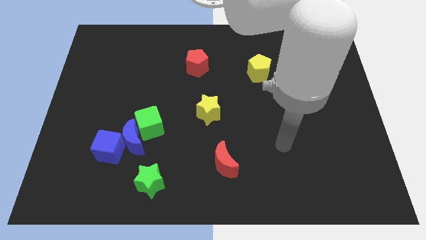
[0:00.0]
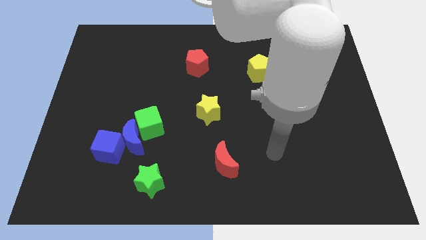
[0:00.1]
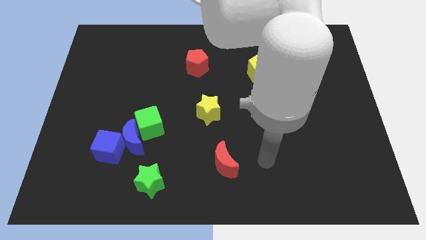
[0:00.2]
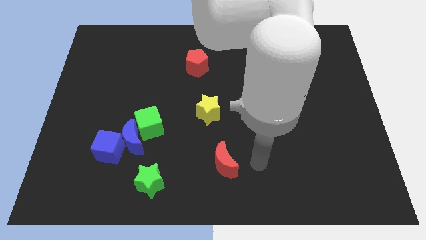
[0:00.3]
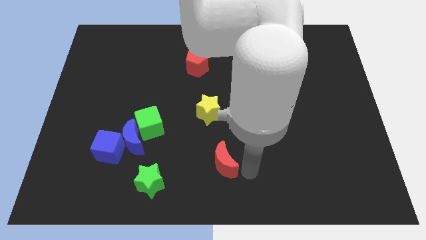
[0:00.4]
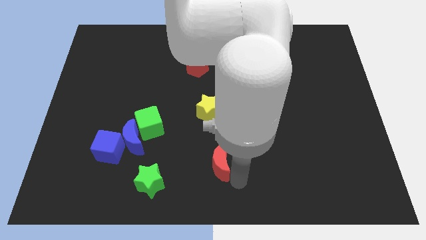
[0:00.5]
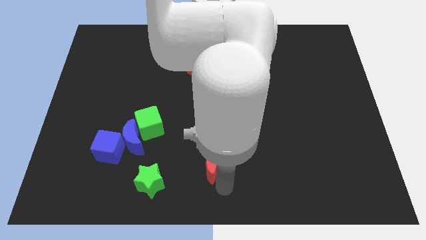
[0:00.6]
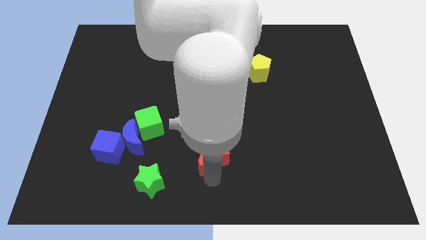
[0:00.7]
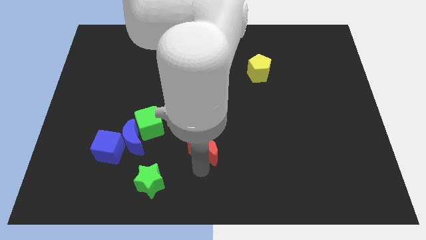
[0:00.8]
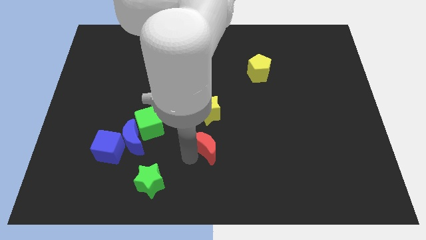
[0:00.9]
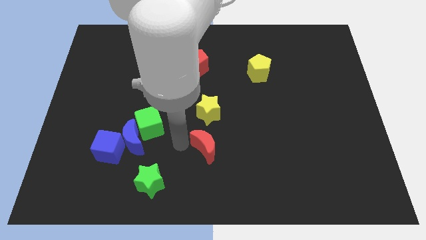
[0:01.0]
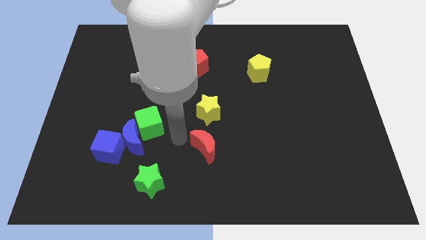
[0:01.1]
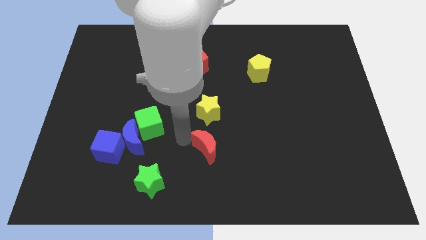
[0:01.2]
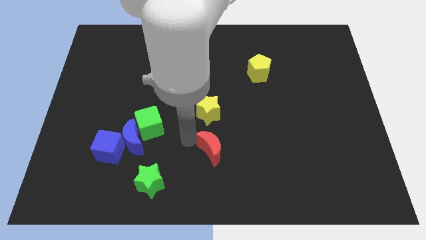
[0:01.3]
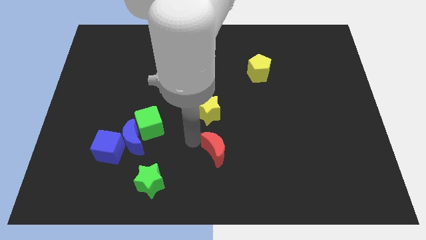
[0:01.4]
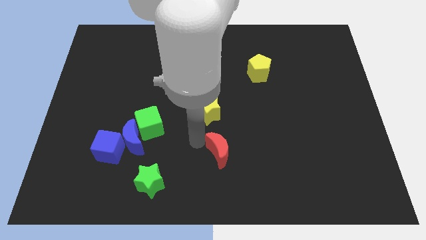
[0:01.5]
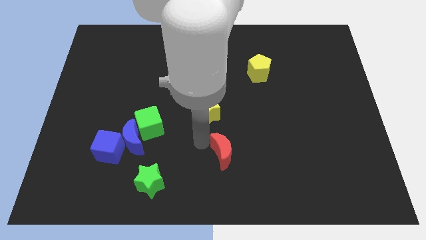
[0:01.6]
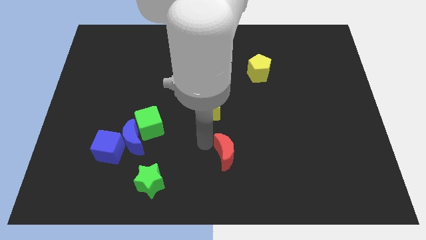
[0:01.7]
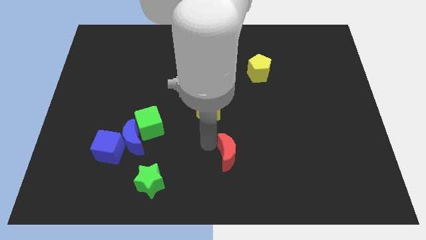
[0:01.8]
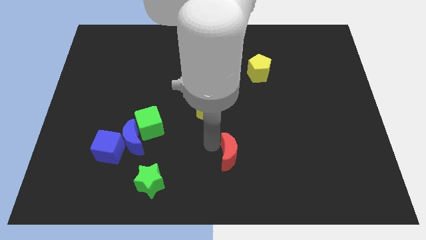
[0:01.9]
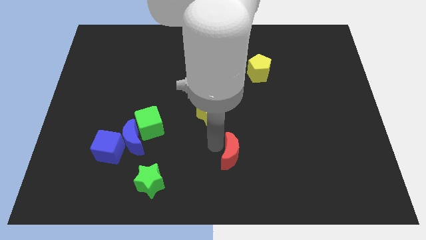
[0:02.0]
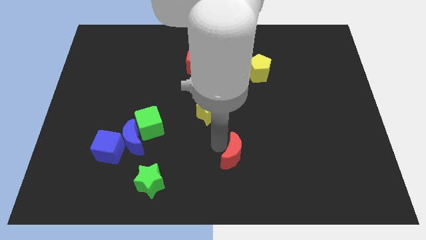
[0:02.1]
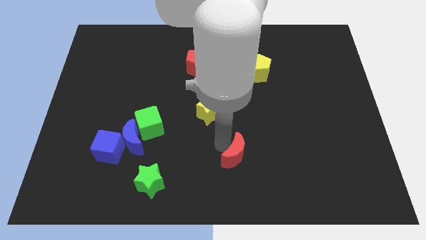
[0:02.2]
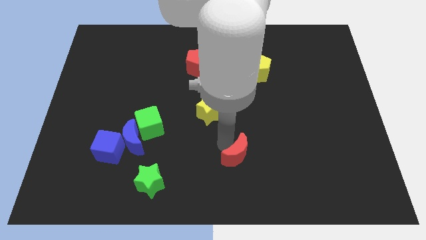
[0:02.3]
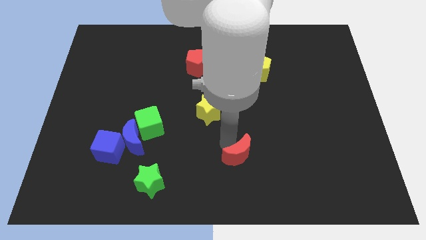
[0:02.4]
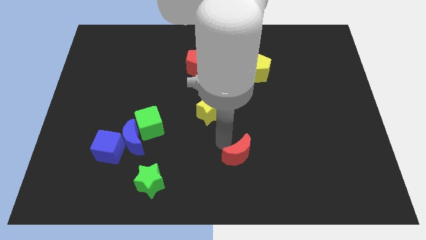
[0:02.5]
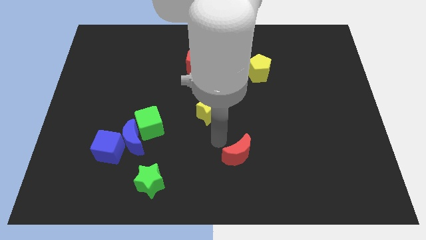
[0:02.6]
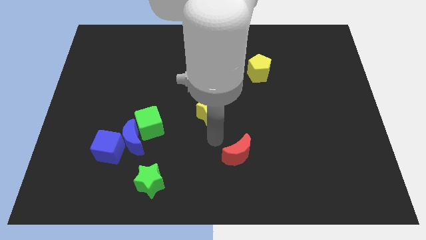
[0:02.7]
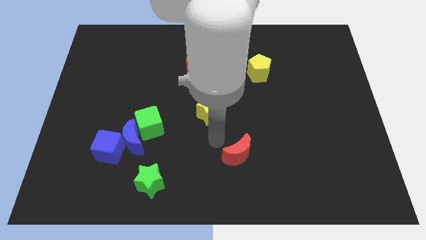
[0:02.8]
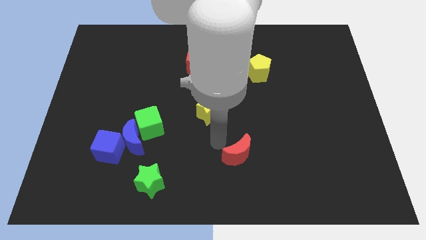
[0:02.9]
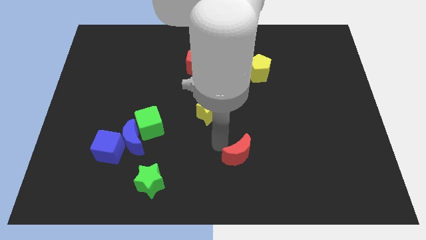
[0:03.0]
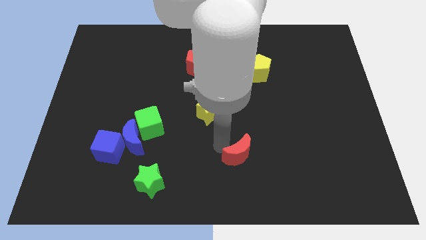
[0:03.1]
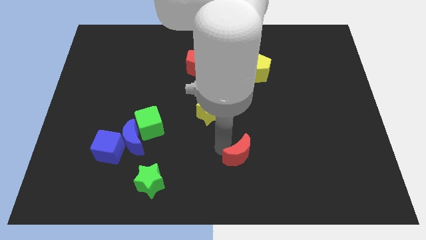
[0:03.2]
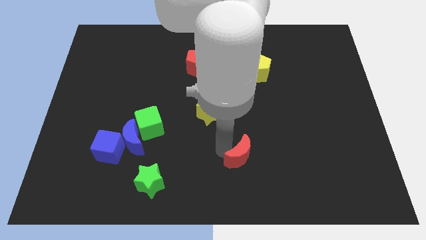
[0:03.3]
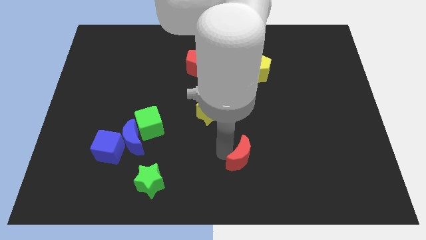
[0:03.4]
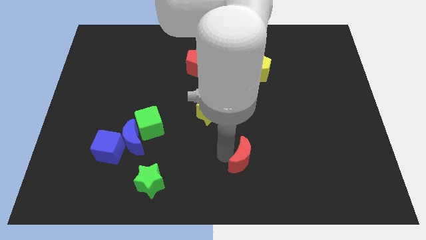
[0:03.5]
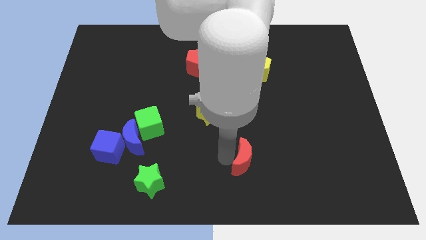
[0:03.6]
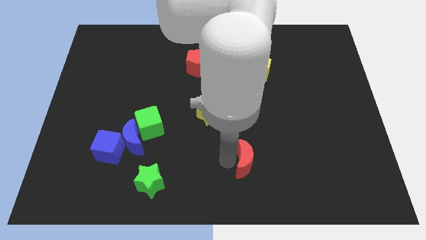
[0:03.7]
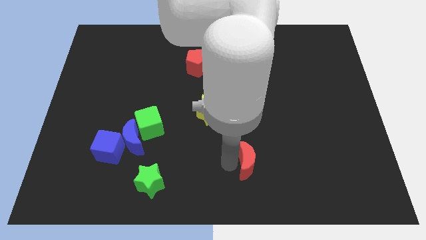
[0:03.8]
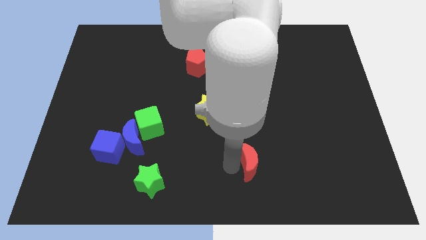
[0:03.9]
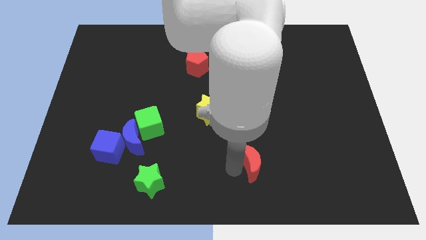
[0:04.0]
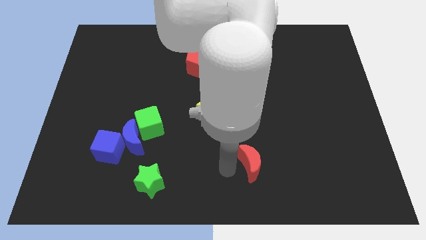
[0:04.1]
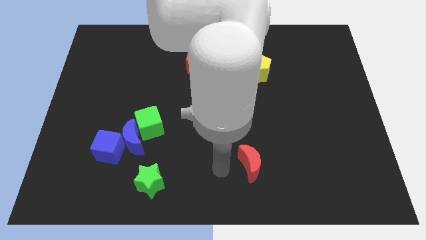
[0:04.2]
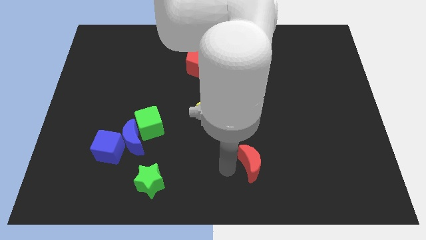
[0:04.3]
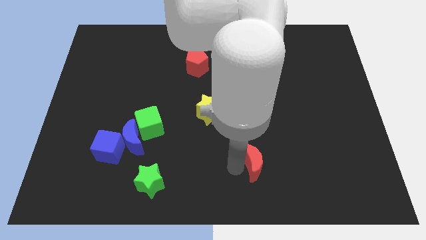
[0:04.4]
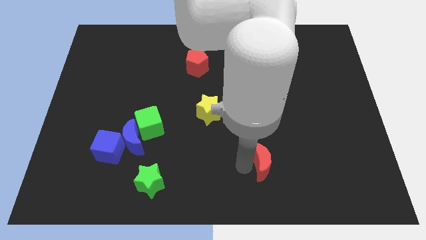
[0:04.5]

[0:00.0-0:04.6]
push the red moon to the right somewhat

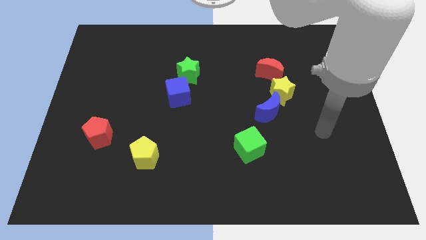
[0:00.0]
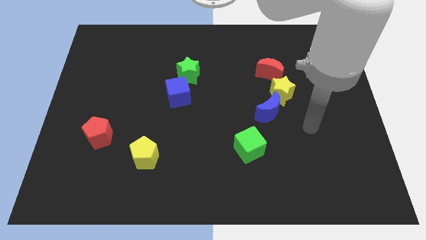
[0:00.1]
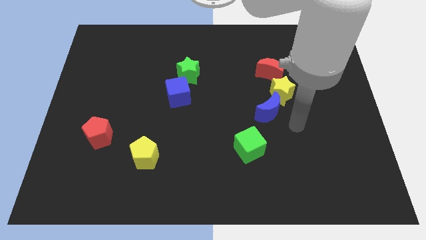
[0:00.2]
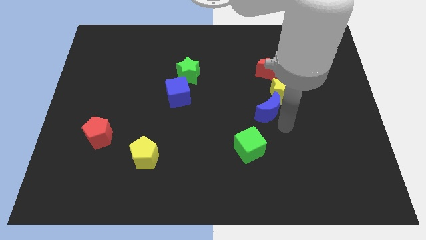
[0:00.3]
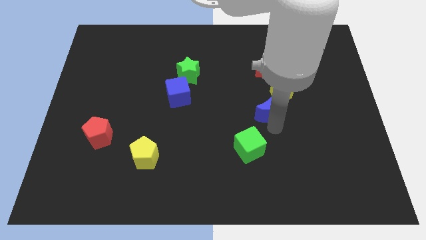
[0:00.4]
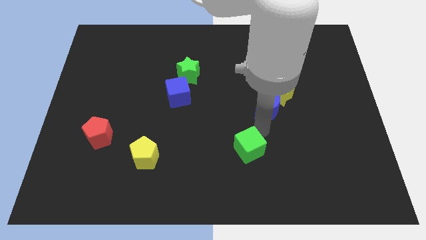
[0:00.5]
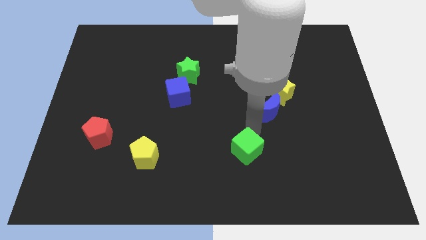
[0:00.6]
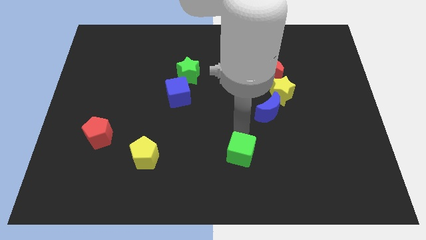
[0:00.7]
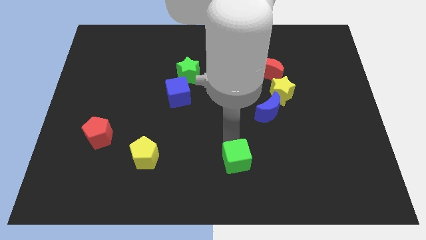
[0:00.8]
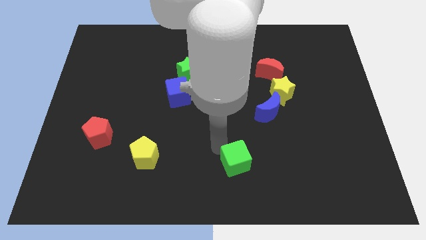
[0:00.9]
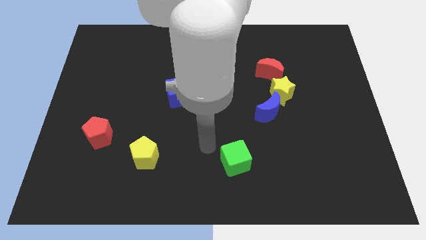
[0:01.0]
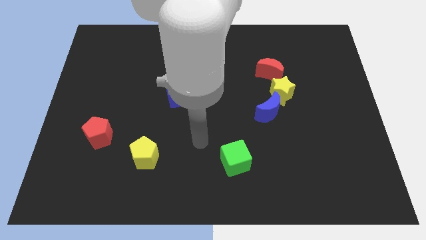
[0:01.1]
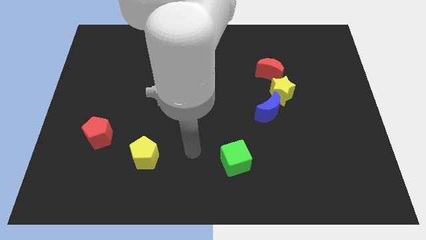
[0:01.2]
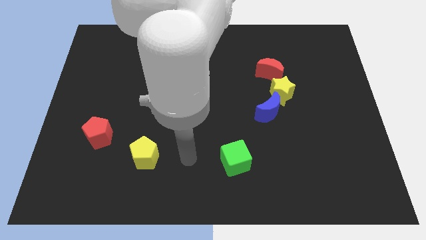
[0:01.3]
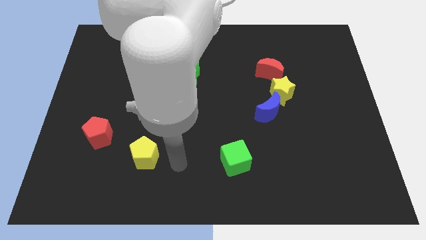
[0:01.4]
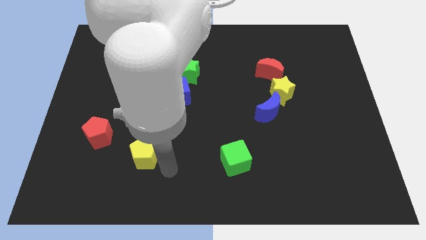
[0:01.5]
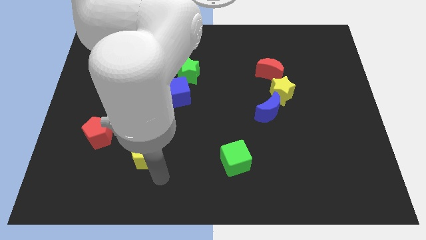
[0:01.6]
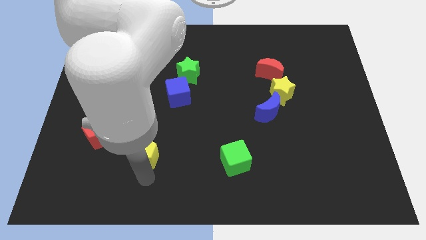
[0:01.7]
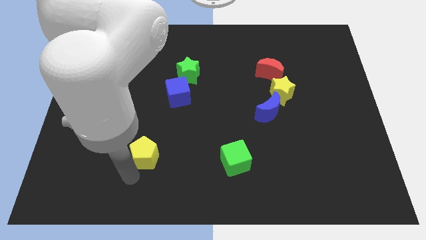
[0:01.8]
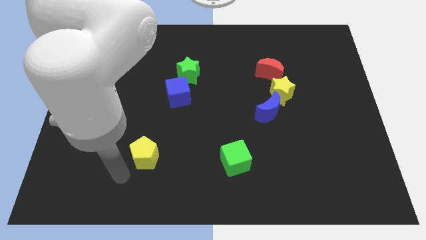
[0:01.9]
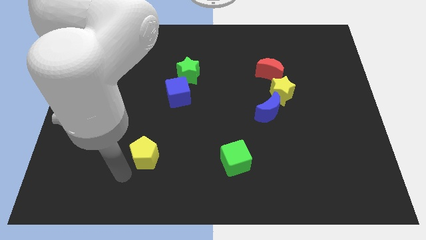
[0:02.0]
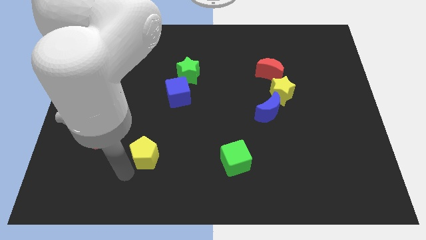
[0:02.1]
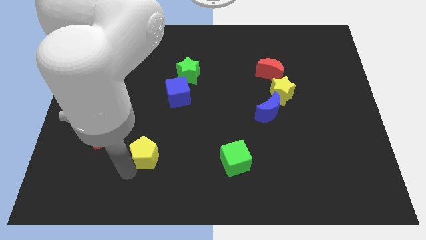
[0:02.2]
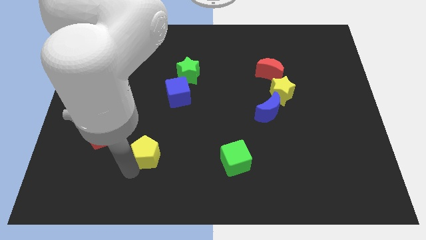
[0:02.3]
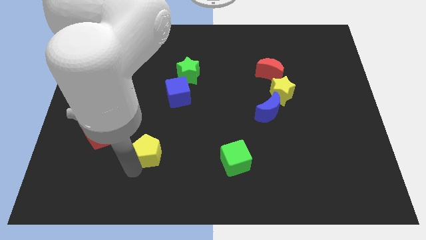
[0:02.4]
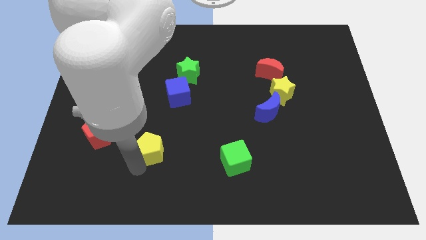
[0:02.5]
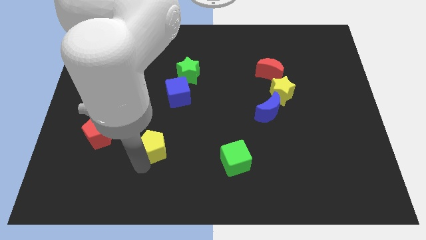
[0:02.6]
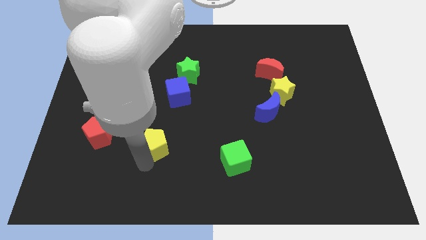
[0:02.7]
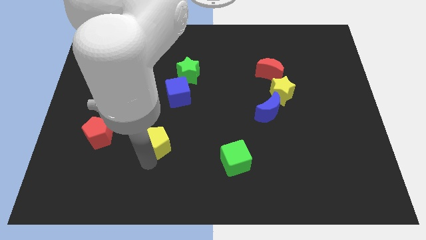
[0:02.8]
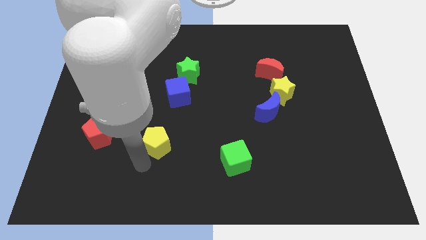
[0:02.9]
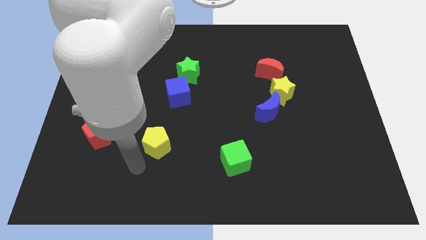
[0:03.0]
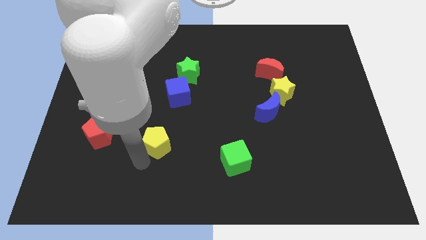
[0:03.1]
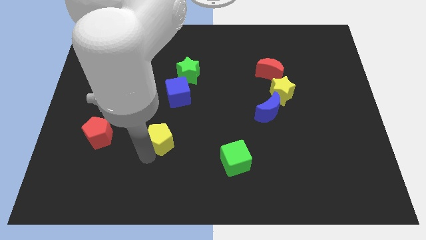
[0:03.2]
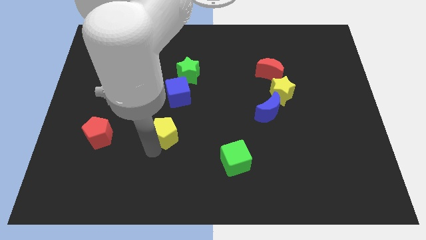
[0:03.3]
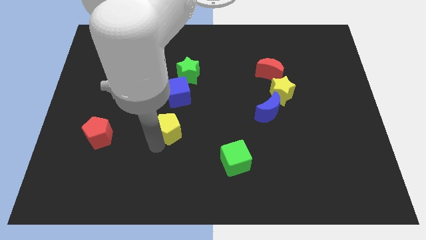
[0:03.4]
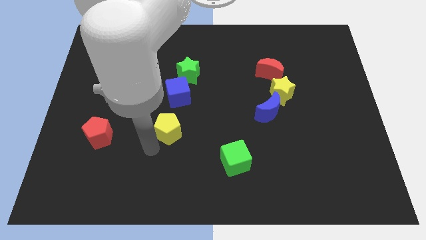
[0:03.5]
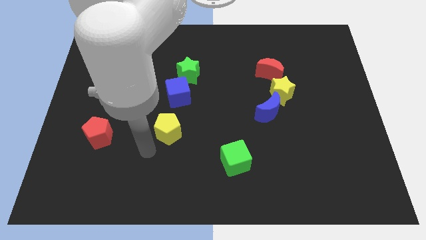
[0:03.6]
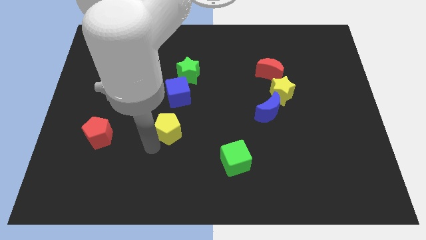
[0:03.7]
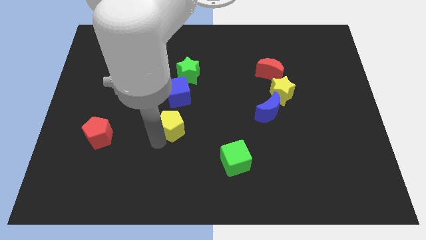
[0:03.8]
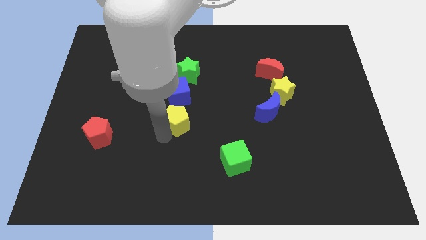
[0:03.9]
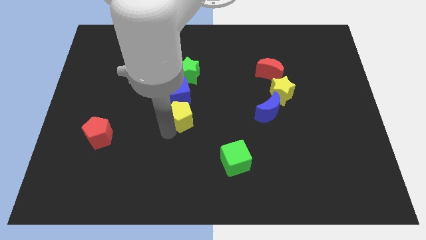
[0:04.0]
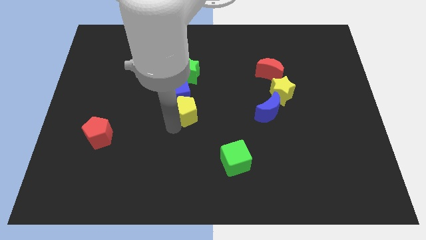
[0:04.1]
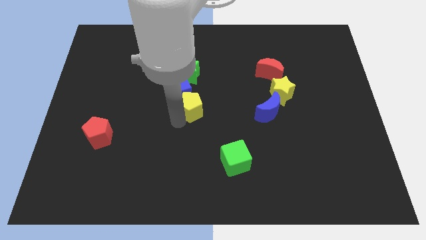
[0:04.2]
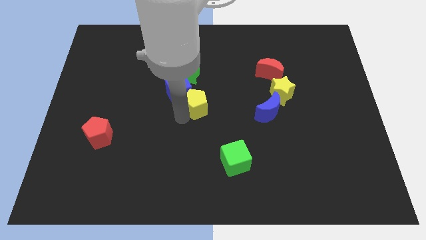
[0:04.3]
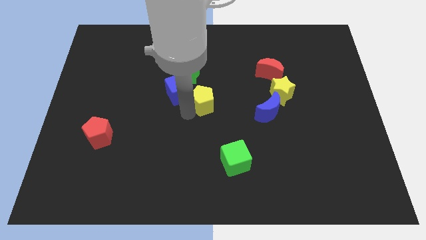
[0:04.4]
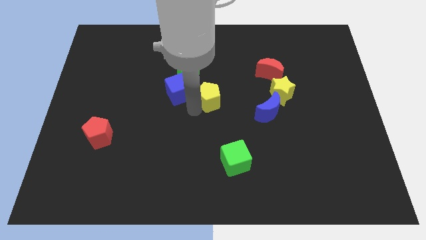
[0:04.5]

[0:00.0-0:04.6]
move the yellow pentagon up and right diagonally
